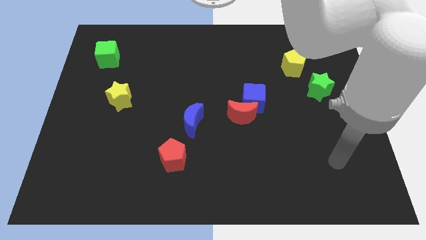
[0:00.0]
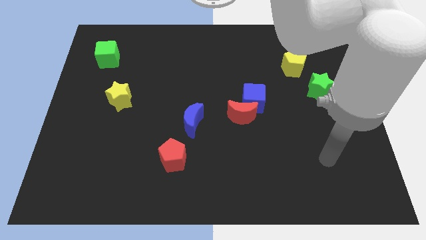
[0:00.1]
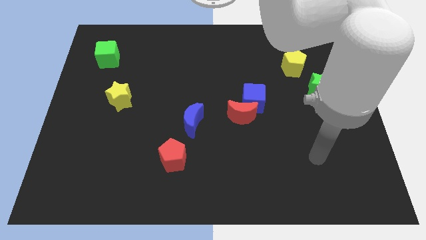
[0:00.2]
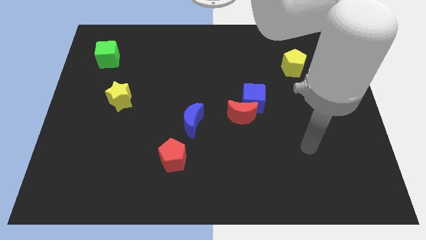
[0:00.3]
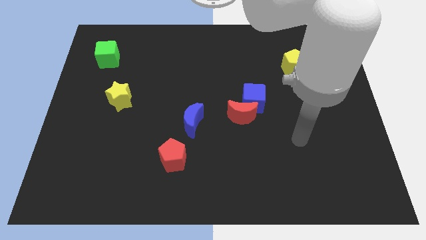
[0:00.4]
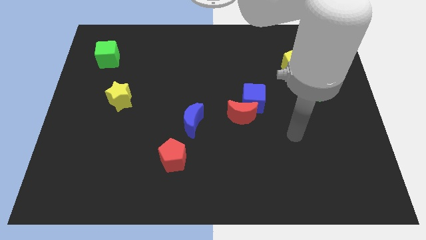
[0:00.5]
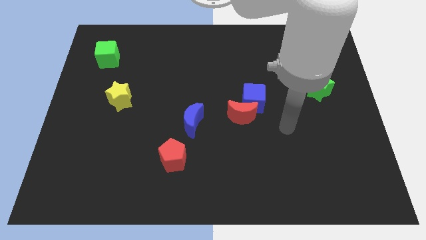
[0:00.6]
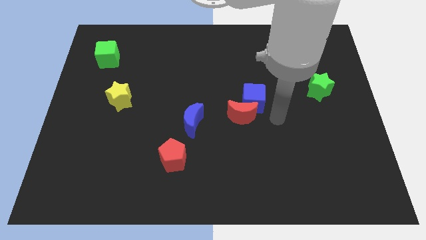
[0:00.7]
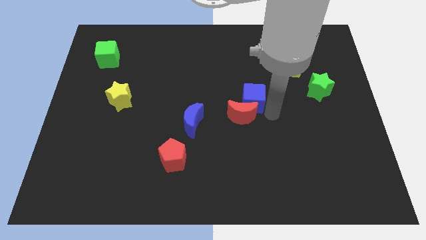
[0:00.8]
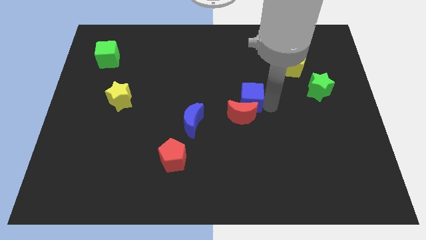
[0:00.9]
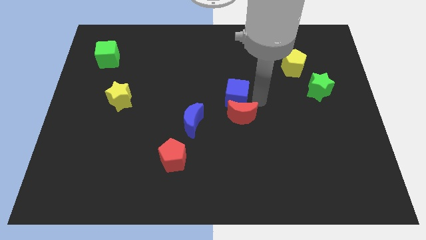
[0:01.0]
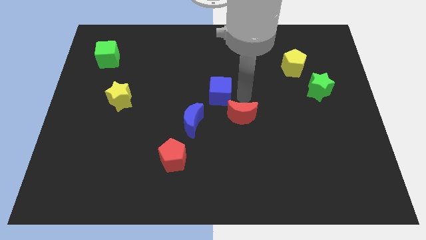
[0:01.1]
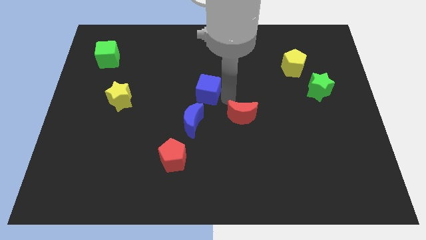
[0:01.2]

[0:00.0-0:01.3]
separate the red moon from the blue cube

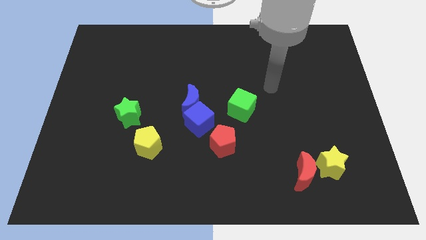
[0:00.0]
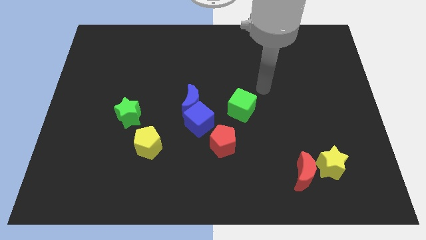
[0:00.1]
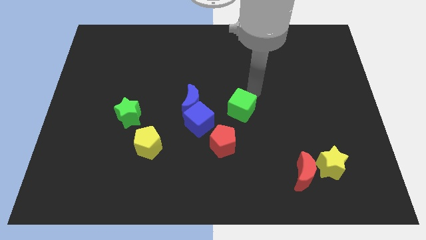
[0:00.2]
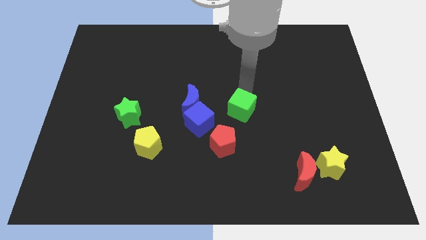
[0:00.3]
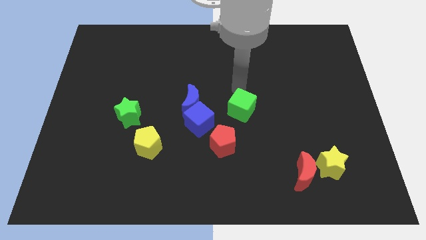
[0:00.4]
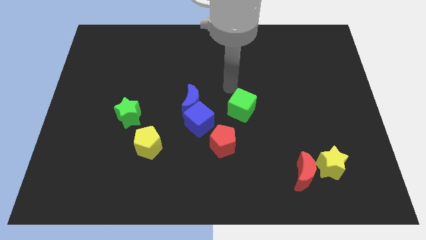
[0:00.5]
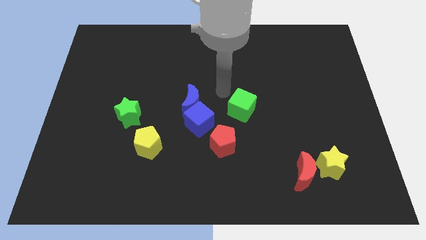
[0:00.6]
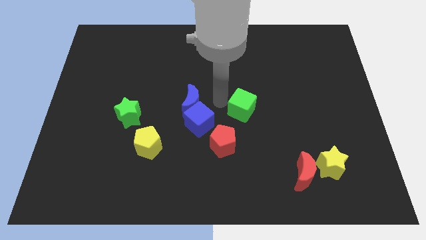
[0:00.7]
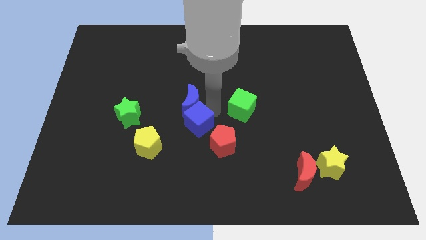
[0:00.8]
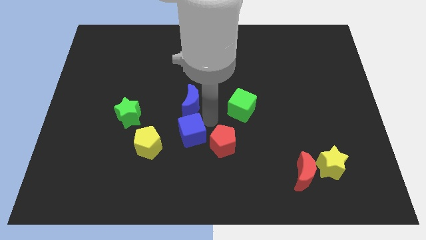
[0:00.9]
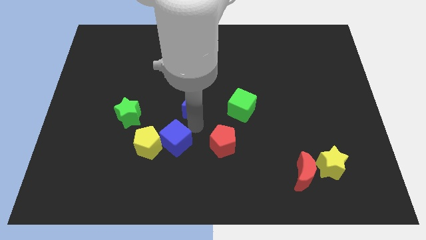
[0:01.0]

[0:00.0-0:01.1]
separate the blue moon from the blue cube

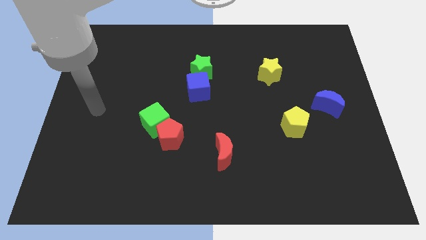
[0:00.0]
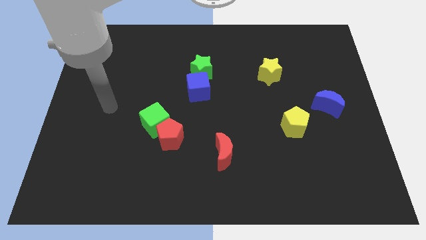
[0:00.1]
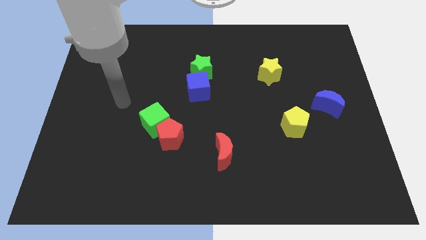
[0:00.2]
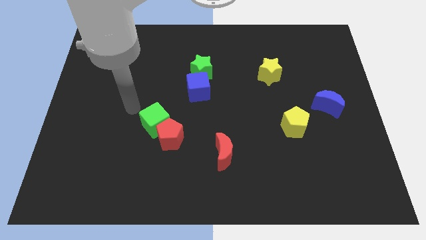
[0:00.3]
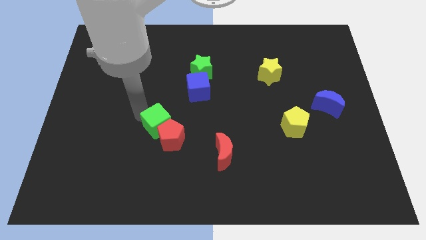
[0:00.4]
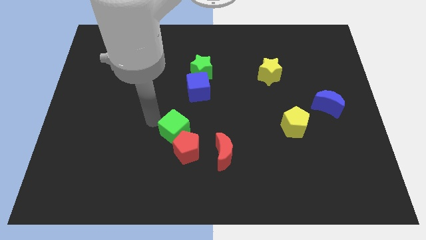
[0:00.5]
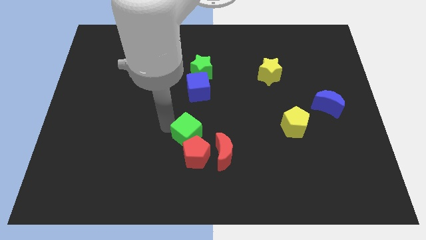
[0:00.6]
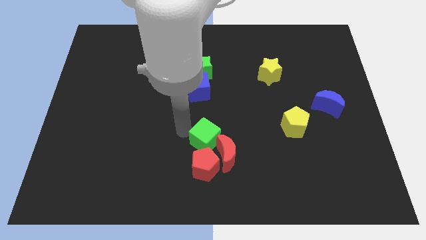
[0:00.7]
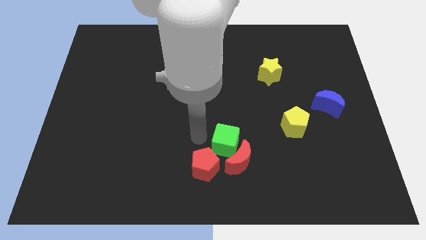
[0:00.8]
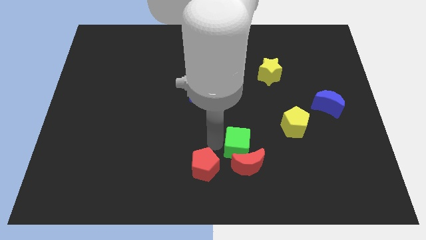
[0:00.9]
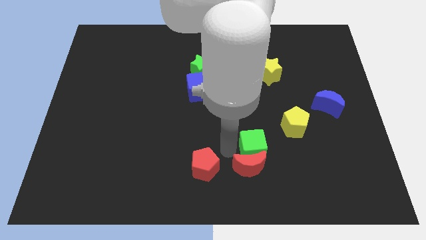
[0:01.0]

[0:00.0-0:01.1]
separate the red pentagon from the green cube

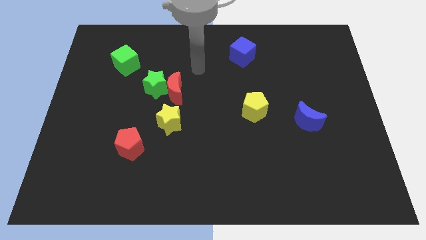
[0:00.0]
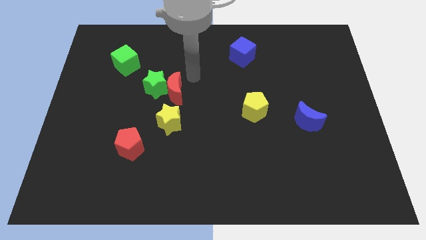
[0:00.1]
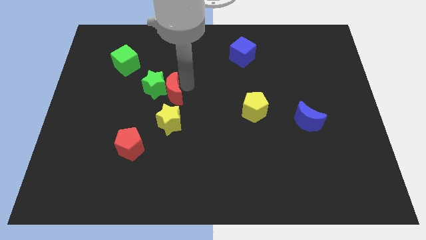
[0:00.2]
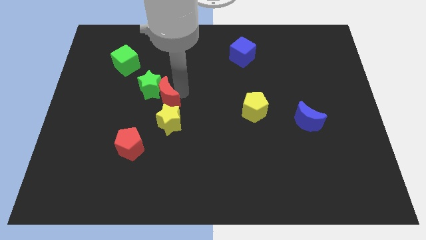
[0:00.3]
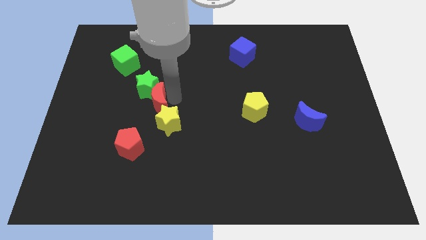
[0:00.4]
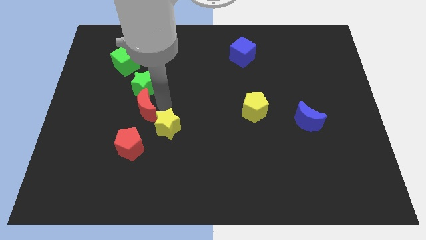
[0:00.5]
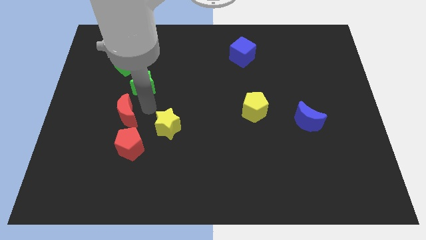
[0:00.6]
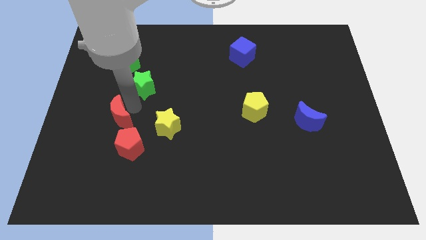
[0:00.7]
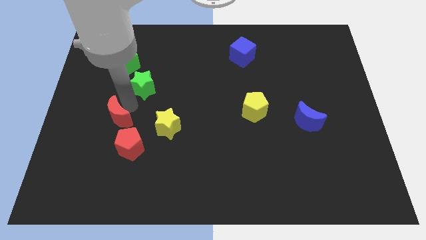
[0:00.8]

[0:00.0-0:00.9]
separate the green star from the red moon

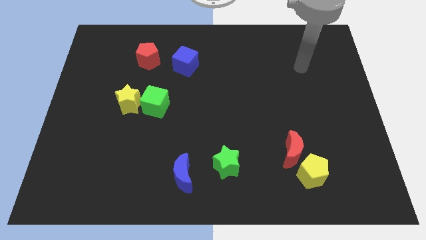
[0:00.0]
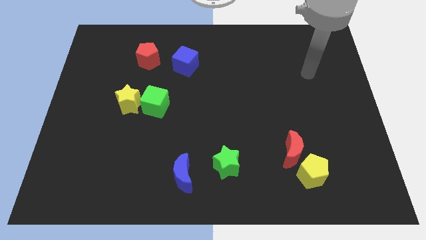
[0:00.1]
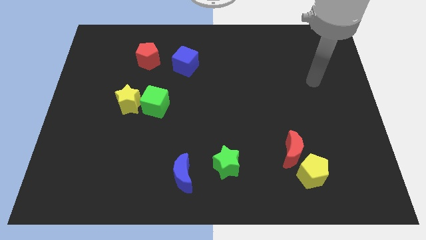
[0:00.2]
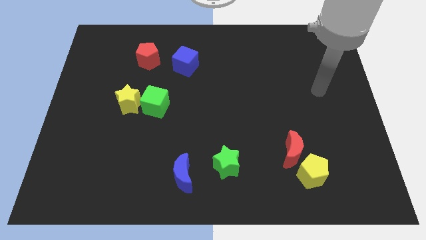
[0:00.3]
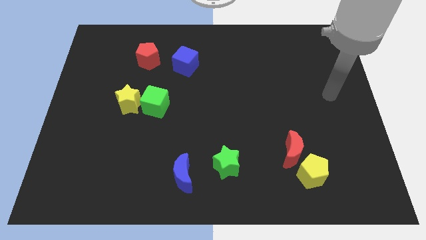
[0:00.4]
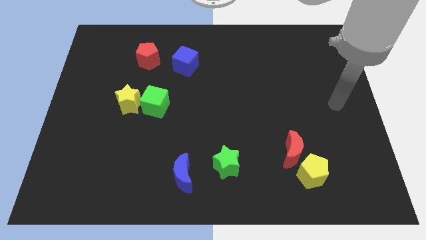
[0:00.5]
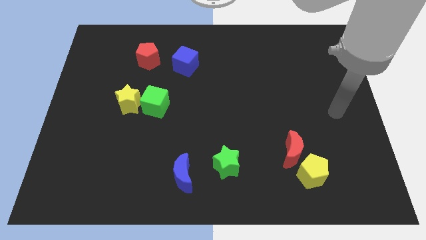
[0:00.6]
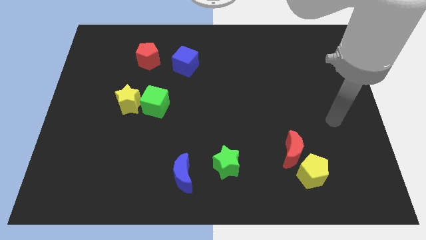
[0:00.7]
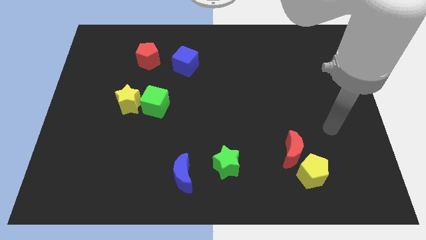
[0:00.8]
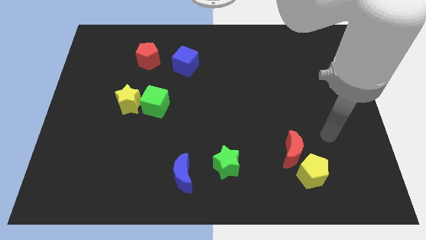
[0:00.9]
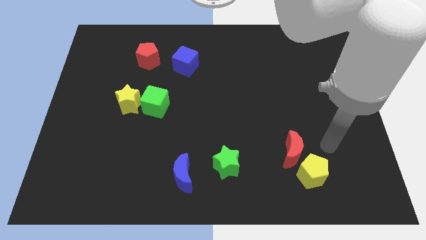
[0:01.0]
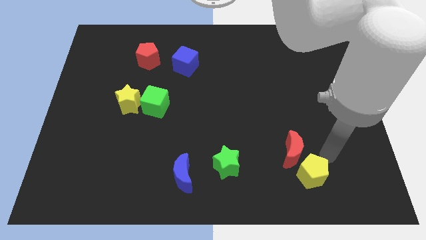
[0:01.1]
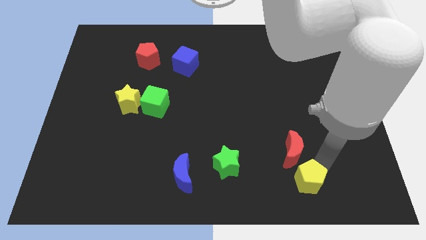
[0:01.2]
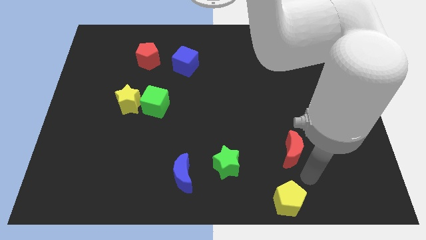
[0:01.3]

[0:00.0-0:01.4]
separate the red moon from the yellow pentagon

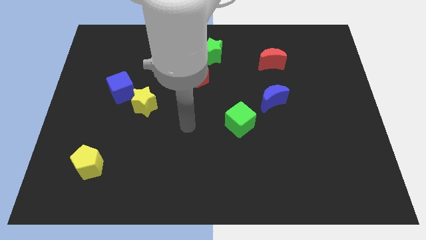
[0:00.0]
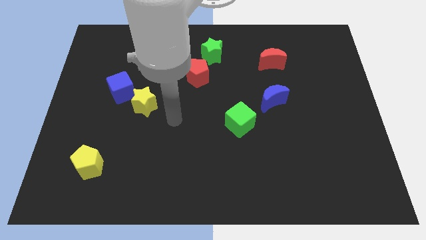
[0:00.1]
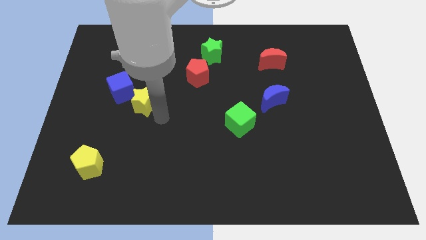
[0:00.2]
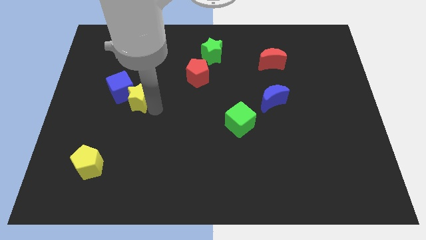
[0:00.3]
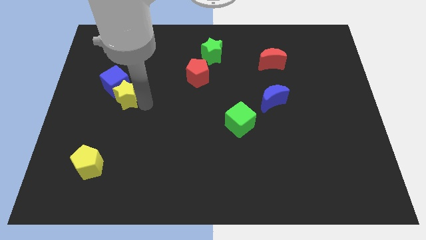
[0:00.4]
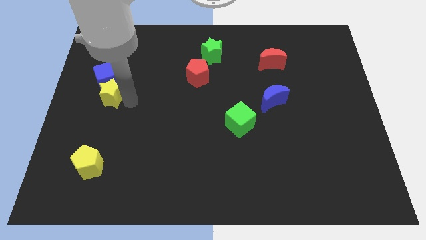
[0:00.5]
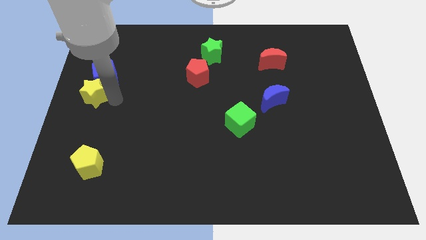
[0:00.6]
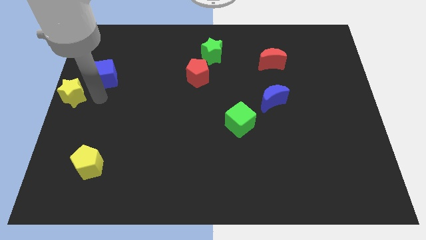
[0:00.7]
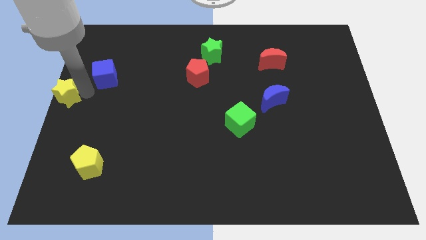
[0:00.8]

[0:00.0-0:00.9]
pull the blue cube apart from the yellow star

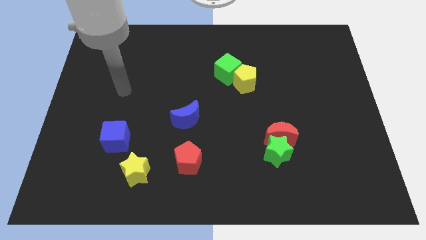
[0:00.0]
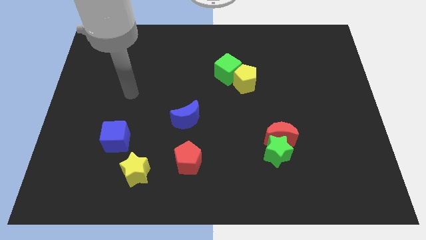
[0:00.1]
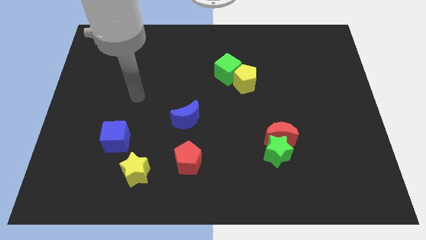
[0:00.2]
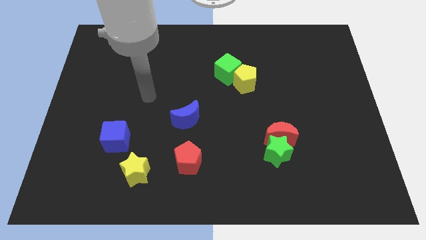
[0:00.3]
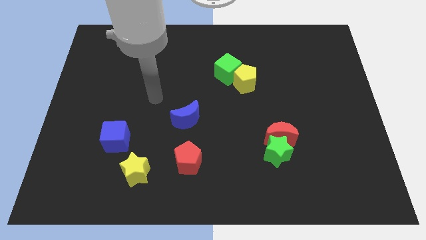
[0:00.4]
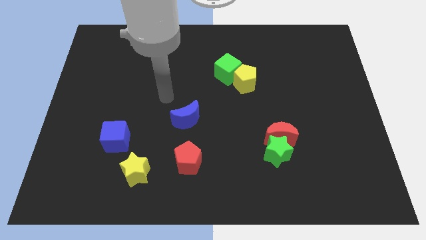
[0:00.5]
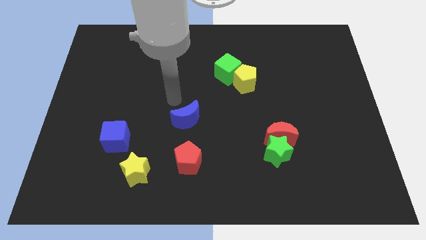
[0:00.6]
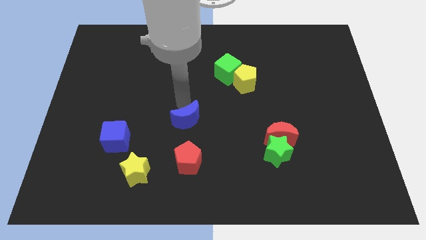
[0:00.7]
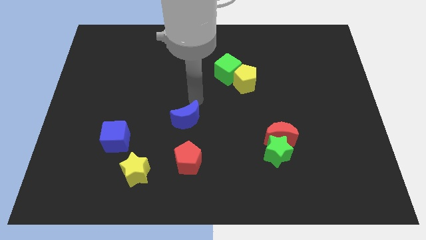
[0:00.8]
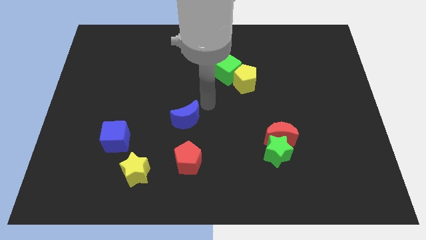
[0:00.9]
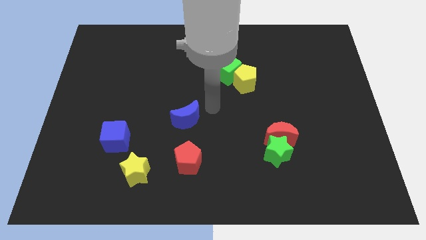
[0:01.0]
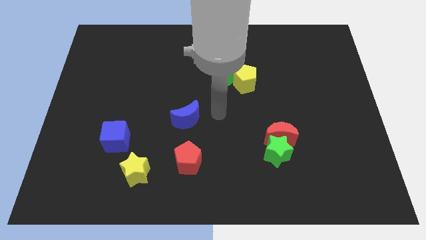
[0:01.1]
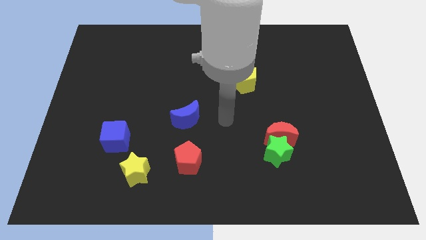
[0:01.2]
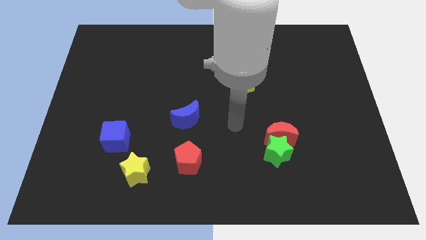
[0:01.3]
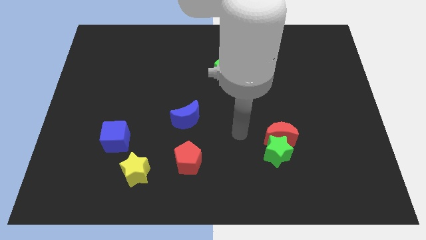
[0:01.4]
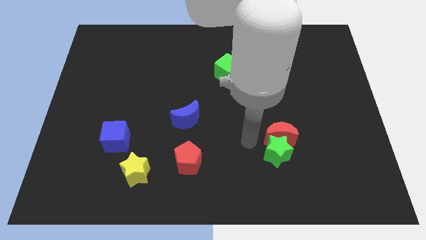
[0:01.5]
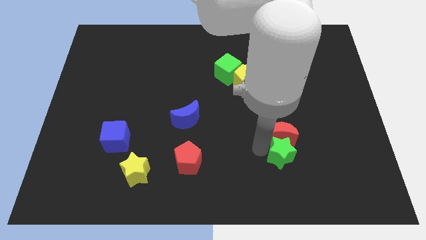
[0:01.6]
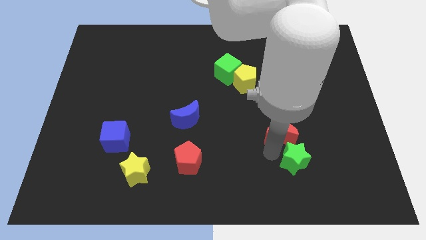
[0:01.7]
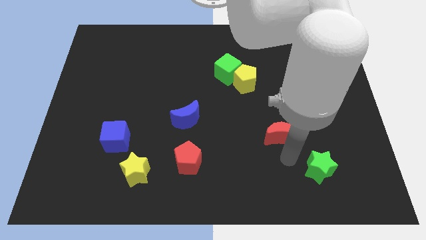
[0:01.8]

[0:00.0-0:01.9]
pull the red moon apart from the green star

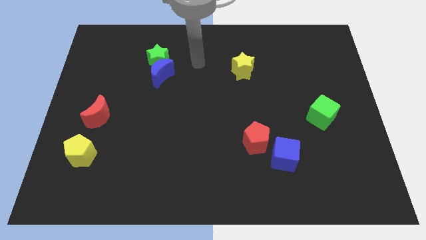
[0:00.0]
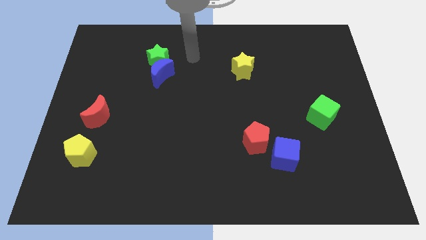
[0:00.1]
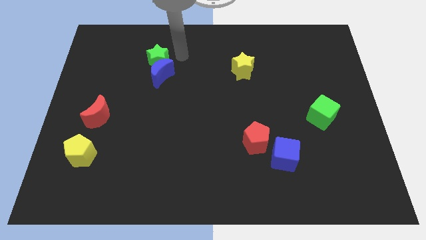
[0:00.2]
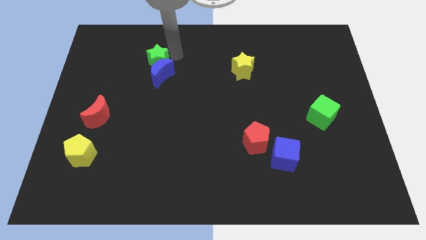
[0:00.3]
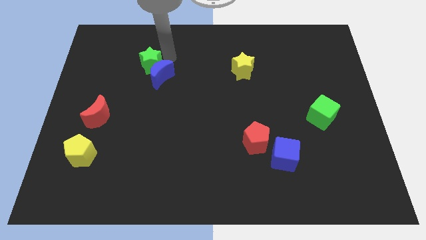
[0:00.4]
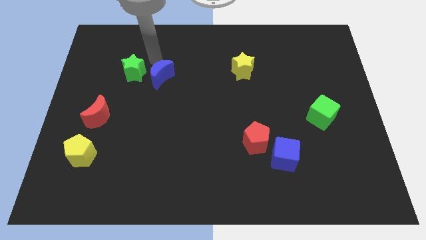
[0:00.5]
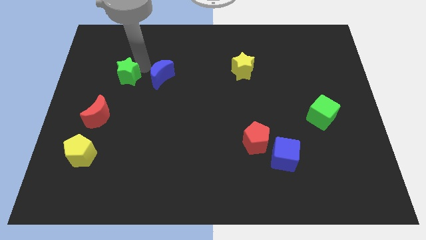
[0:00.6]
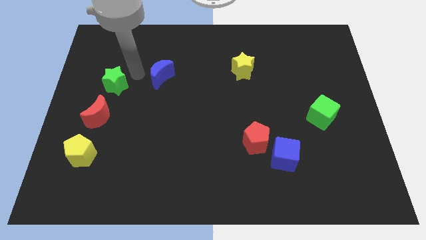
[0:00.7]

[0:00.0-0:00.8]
separate the blue moon from the green star
